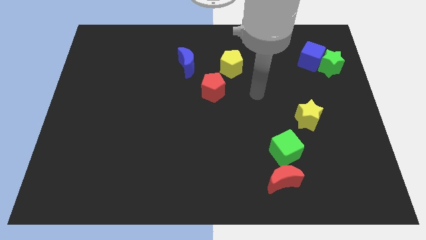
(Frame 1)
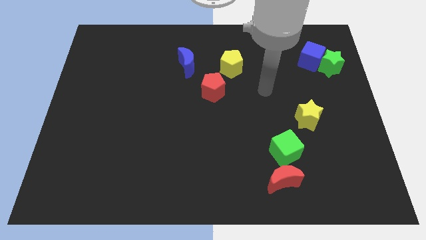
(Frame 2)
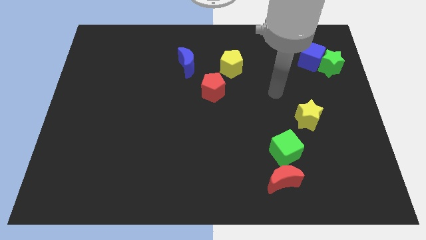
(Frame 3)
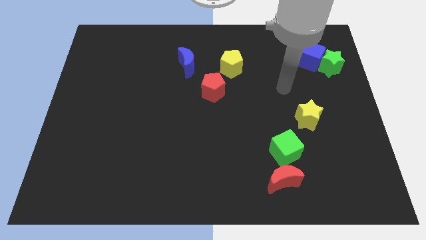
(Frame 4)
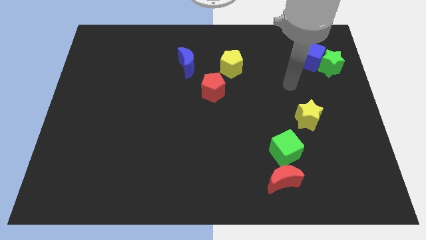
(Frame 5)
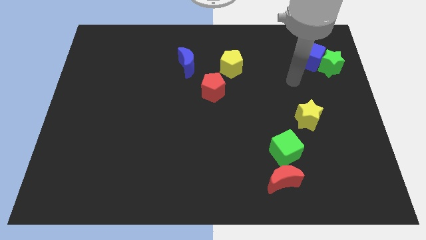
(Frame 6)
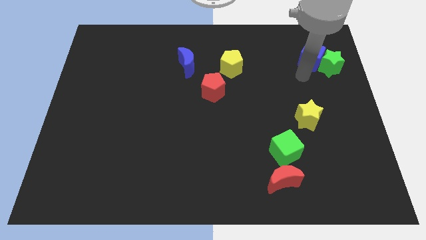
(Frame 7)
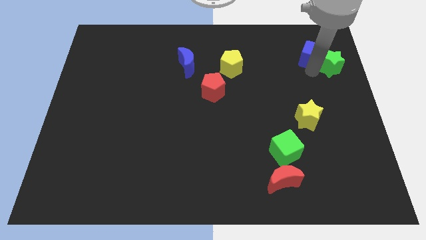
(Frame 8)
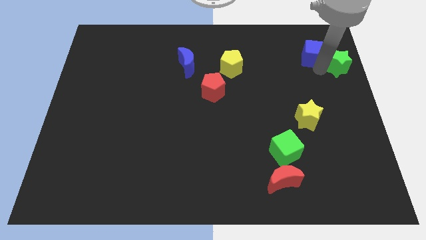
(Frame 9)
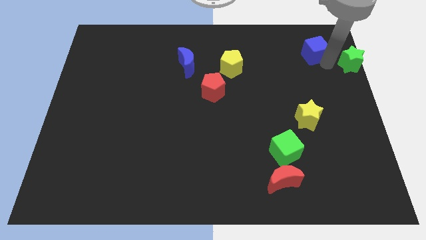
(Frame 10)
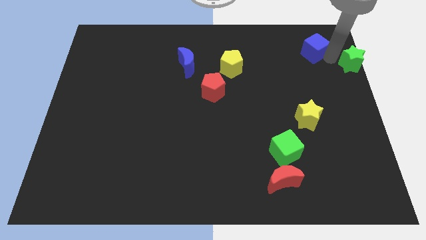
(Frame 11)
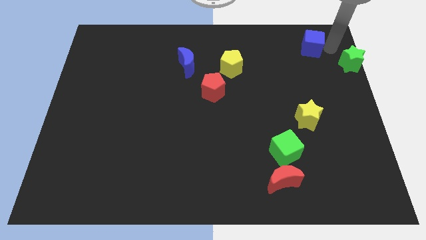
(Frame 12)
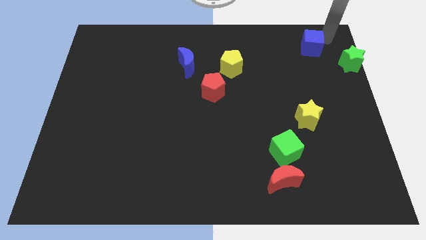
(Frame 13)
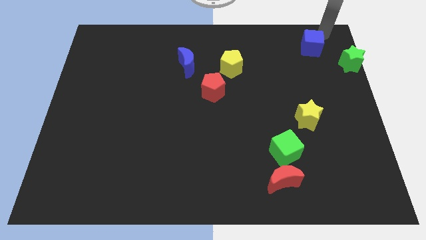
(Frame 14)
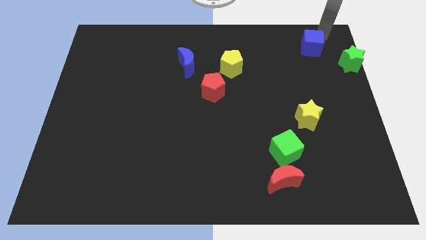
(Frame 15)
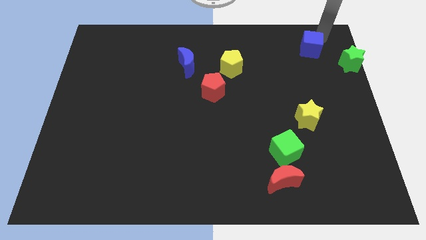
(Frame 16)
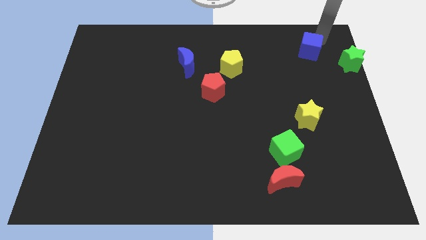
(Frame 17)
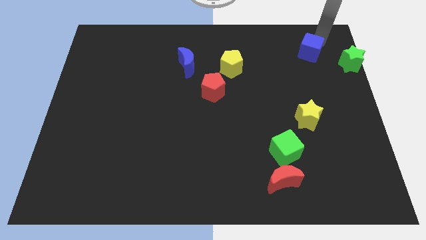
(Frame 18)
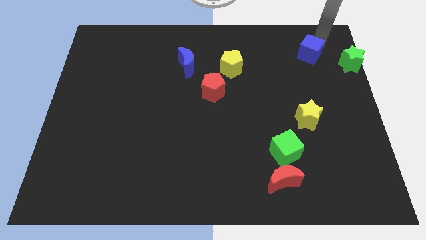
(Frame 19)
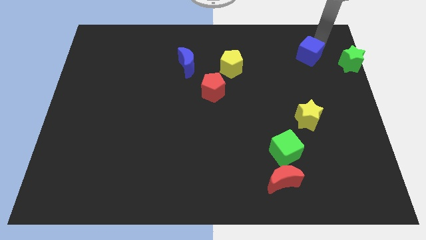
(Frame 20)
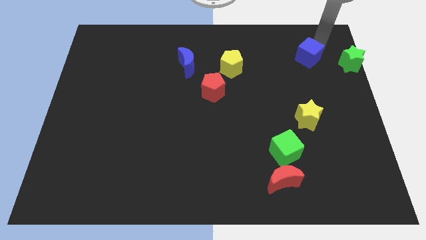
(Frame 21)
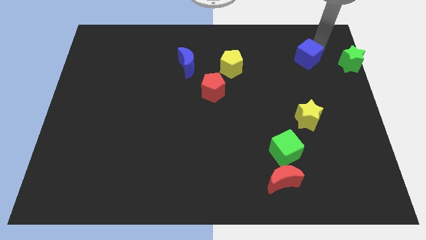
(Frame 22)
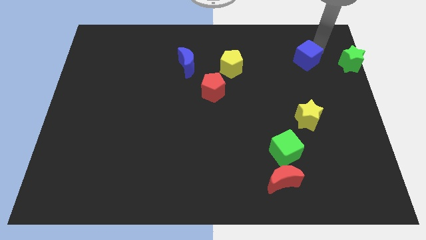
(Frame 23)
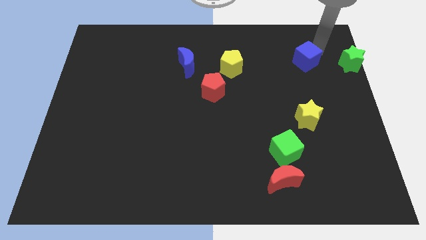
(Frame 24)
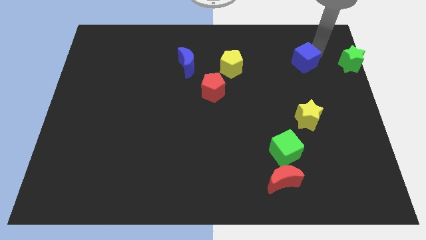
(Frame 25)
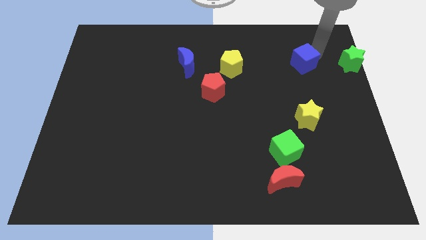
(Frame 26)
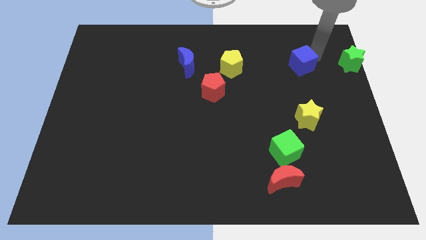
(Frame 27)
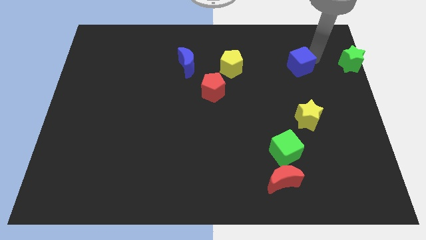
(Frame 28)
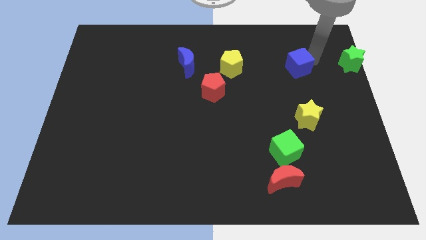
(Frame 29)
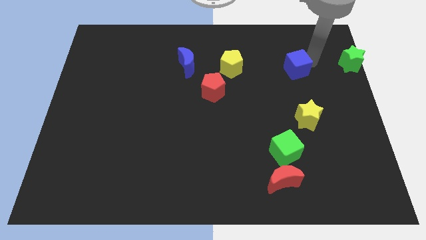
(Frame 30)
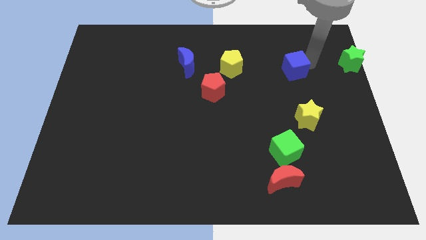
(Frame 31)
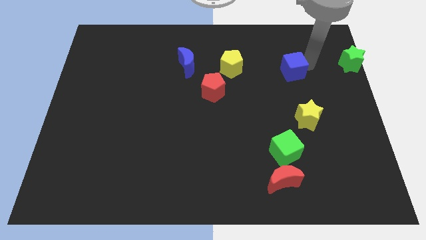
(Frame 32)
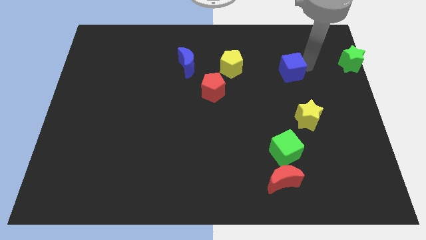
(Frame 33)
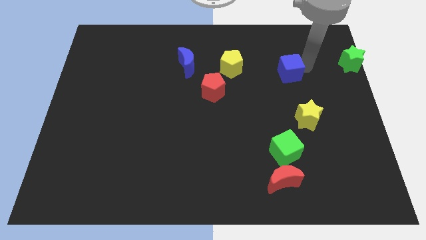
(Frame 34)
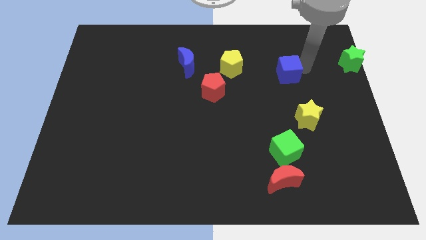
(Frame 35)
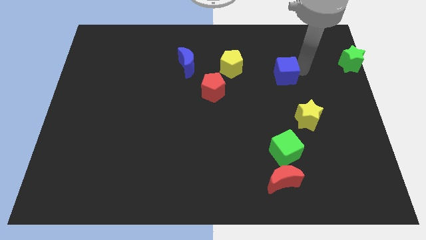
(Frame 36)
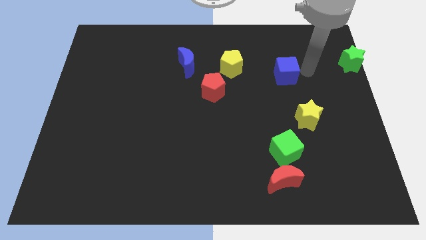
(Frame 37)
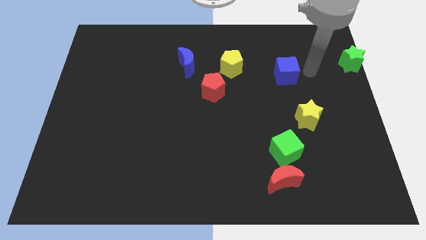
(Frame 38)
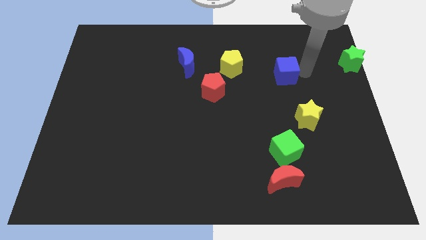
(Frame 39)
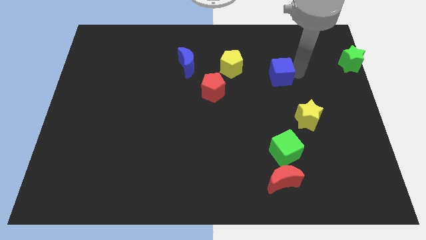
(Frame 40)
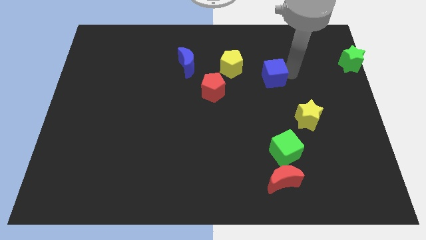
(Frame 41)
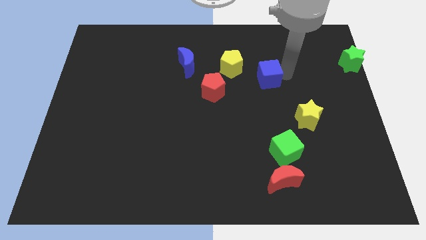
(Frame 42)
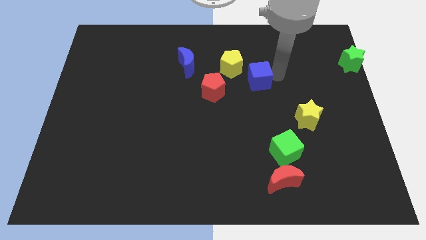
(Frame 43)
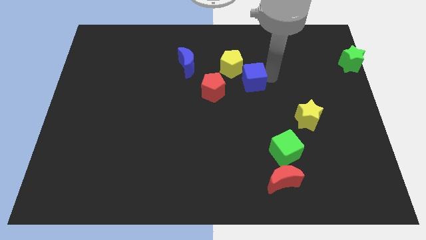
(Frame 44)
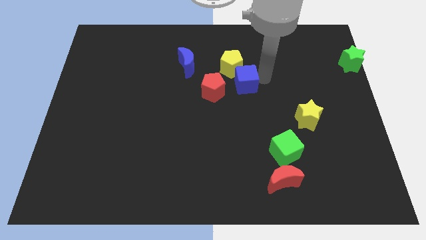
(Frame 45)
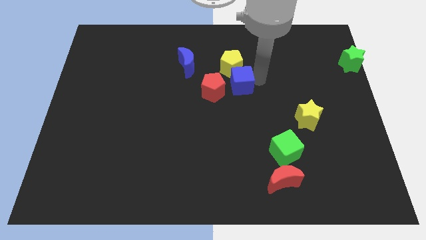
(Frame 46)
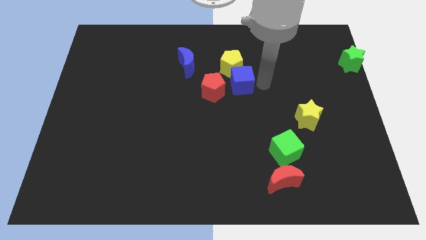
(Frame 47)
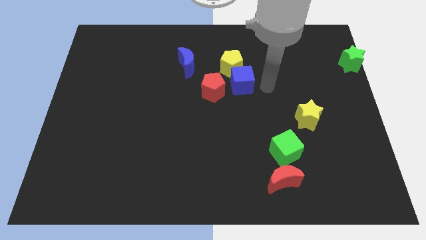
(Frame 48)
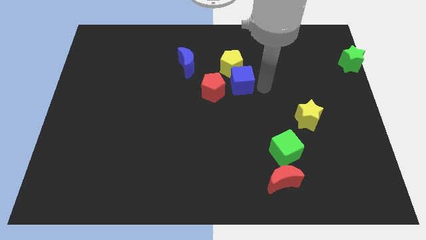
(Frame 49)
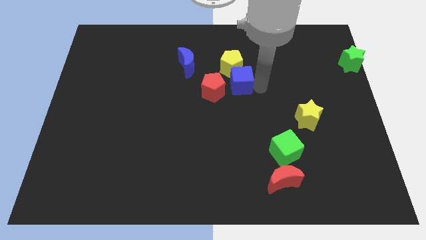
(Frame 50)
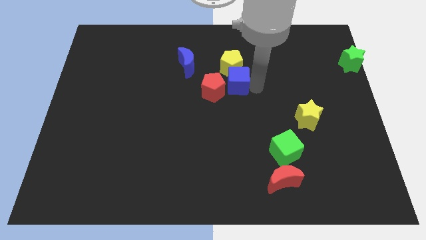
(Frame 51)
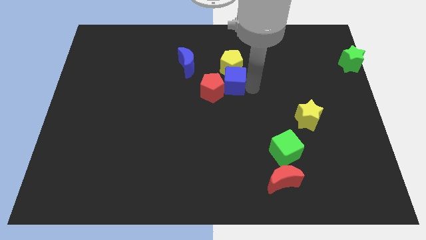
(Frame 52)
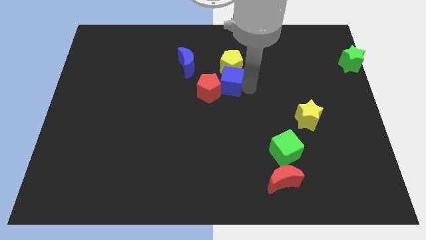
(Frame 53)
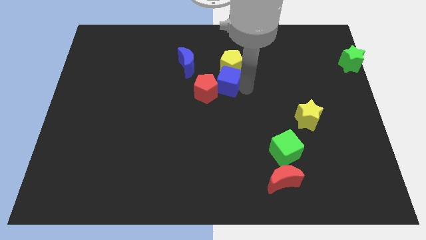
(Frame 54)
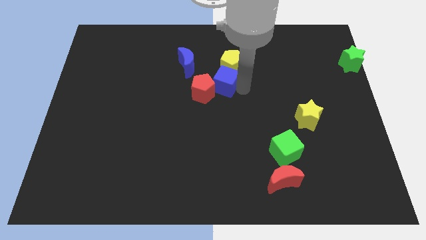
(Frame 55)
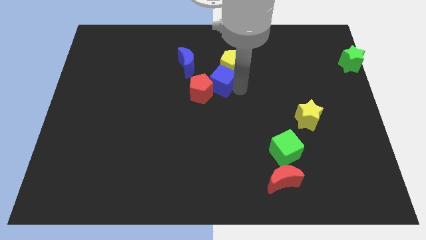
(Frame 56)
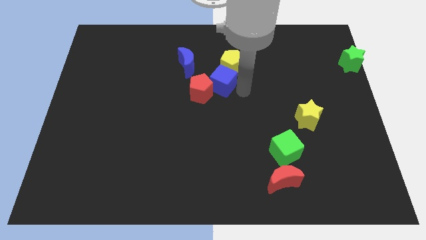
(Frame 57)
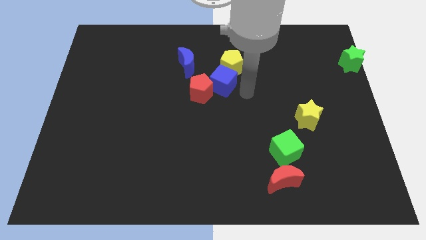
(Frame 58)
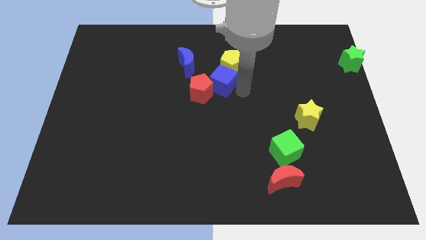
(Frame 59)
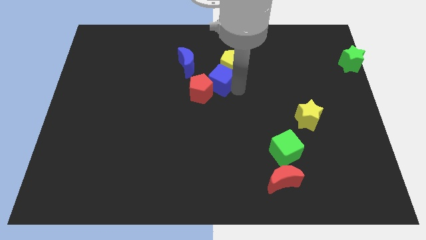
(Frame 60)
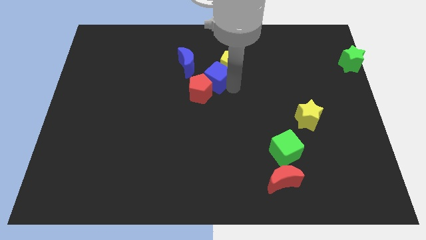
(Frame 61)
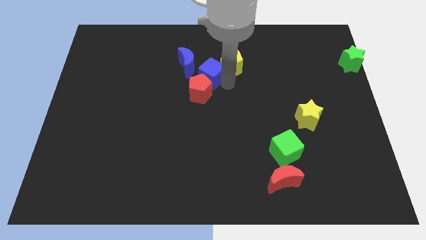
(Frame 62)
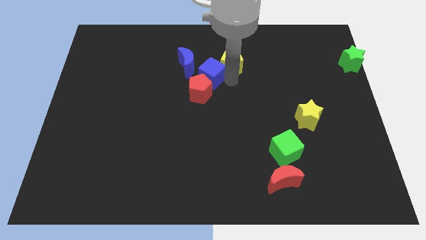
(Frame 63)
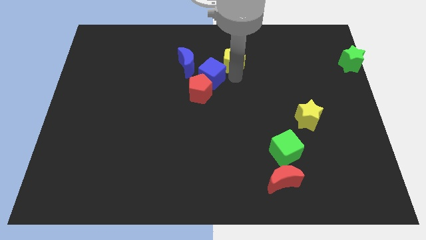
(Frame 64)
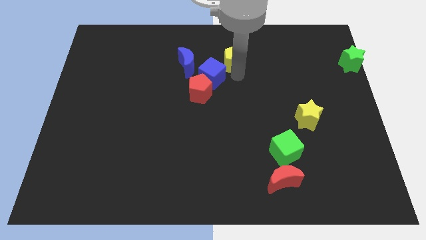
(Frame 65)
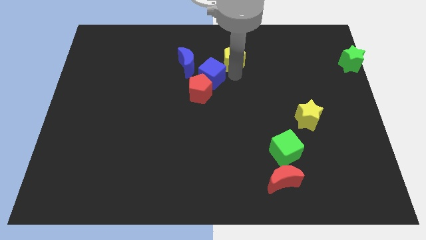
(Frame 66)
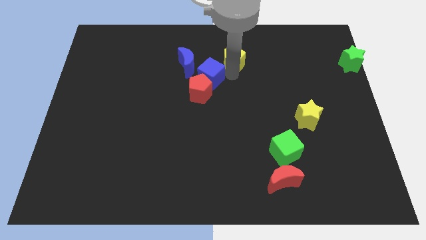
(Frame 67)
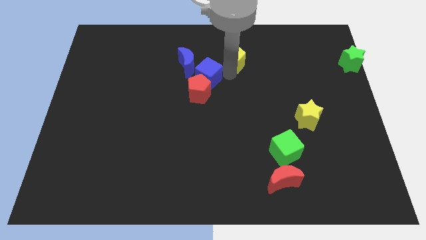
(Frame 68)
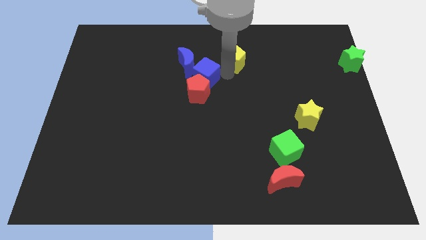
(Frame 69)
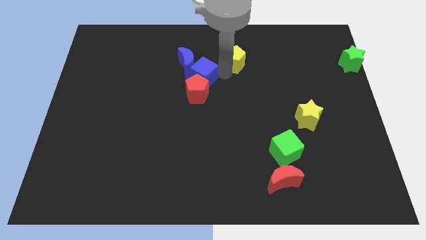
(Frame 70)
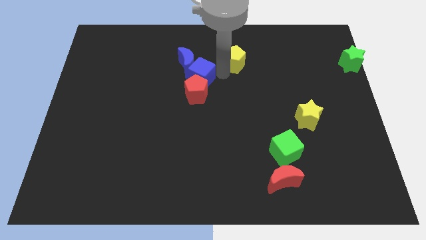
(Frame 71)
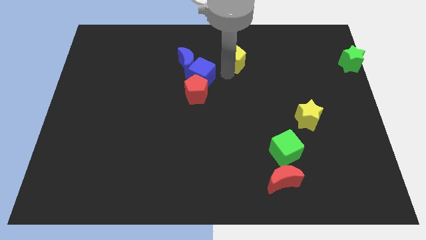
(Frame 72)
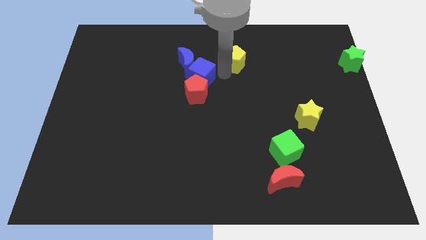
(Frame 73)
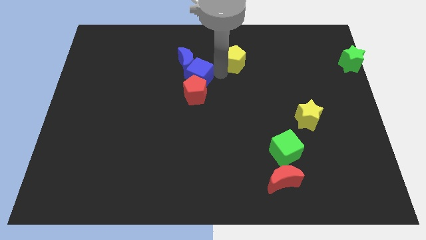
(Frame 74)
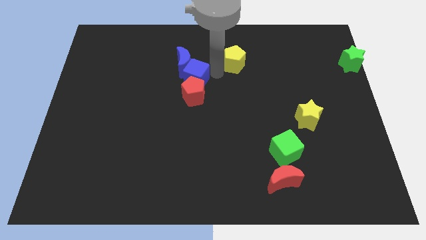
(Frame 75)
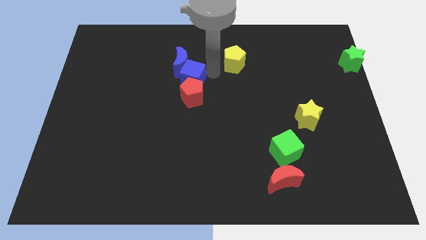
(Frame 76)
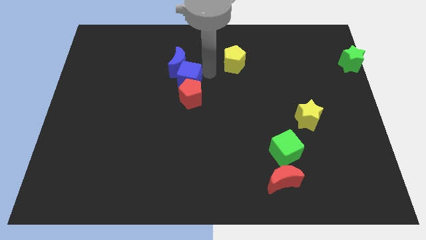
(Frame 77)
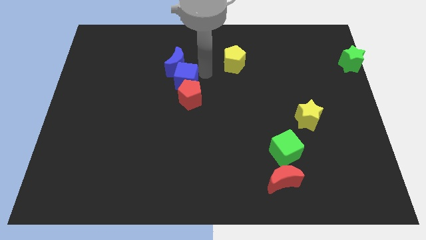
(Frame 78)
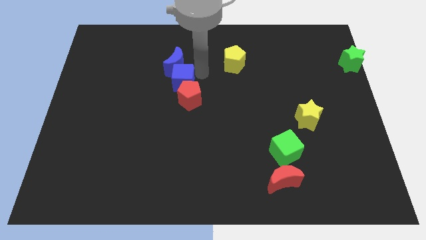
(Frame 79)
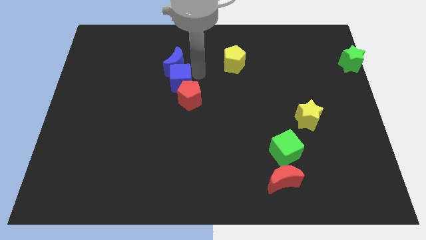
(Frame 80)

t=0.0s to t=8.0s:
move the blue cube to the bottom left of the blue moon
